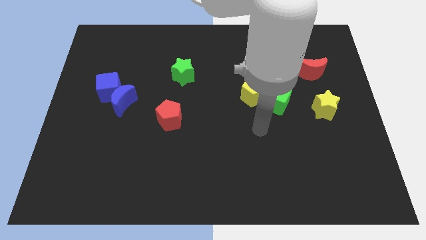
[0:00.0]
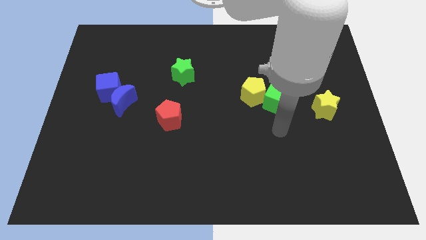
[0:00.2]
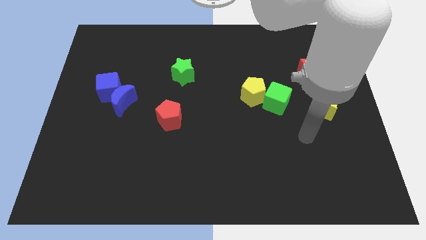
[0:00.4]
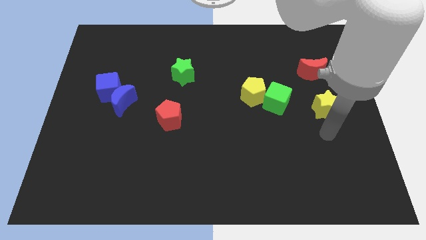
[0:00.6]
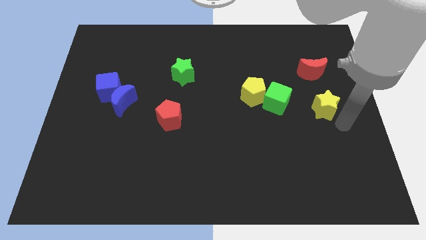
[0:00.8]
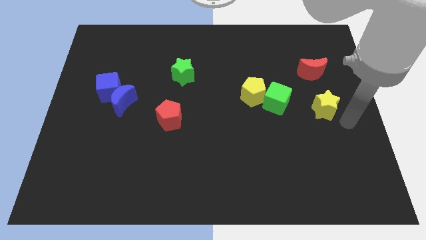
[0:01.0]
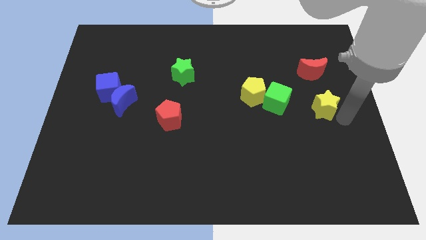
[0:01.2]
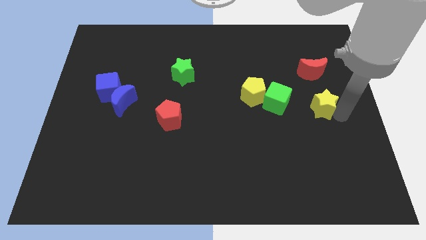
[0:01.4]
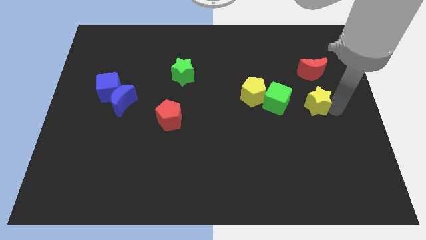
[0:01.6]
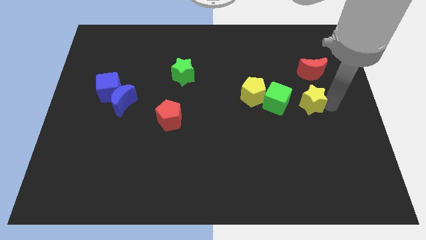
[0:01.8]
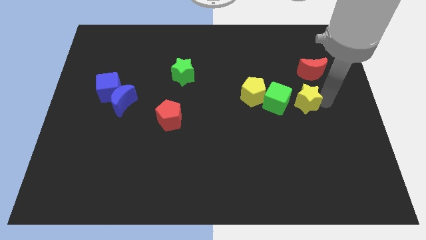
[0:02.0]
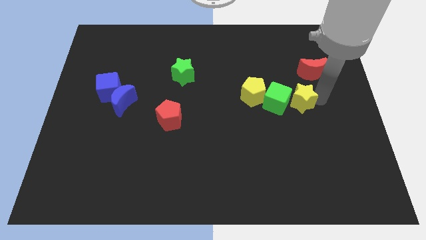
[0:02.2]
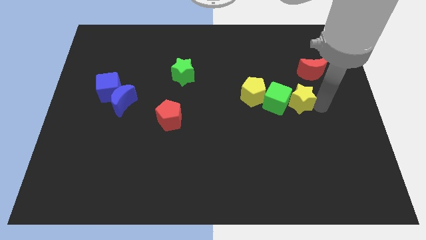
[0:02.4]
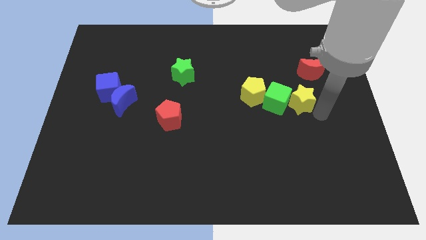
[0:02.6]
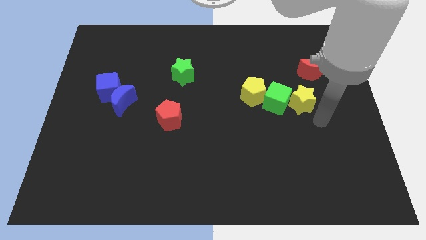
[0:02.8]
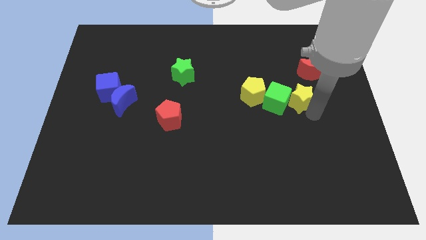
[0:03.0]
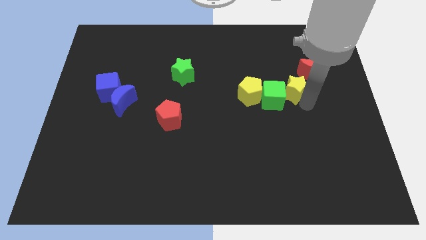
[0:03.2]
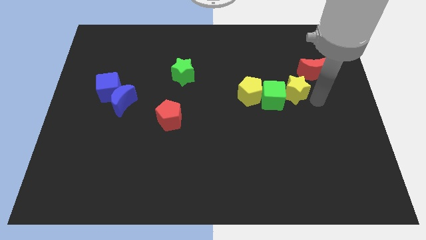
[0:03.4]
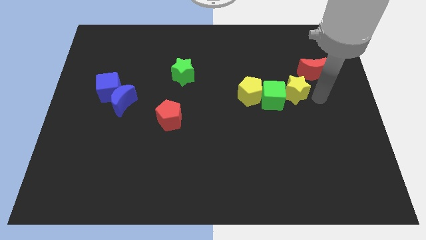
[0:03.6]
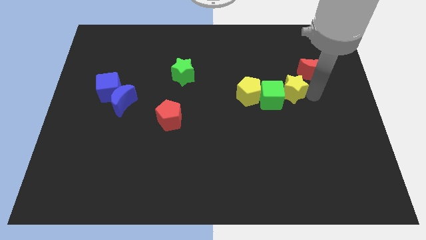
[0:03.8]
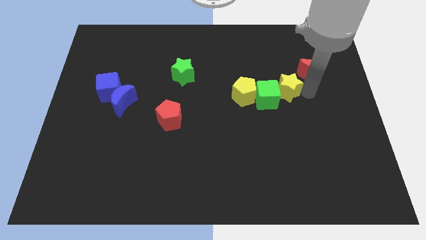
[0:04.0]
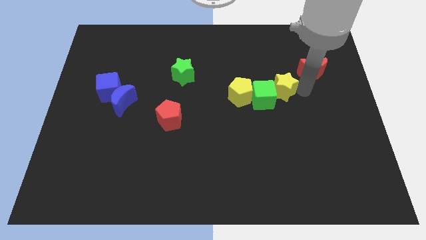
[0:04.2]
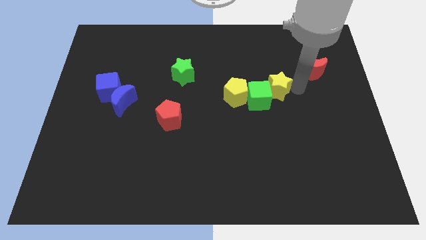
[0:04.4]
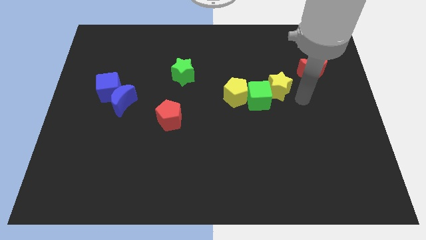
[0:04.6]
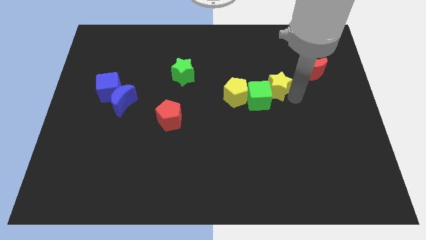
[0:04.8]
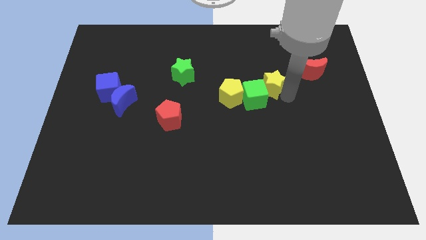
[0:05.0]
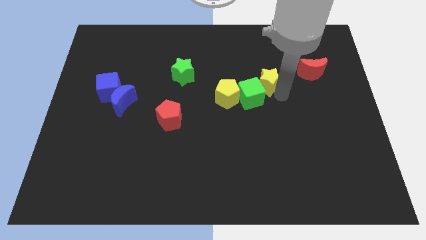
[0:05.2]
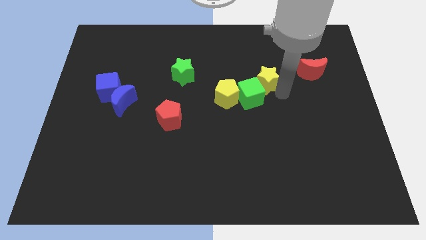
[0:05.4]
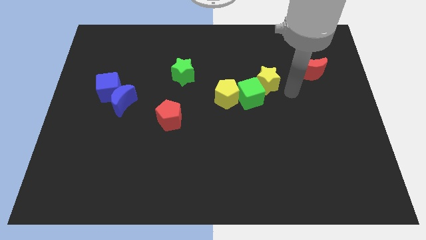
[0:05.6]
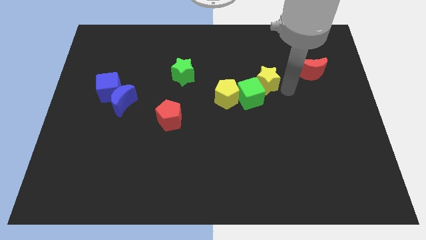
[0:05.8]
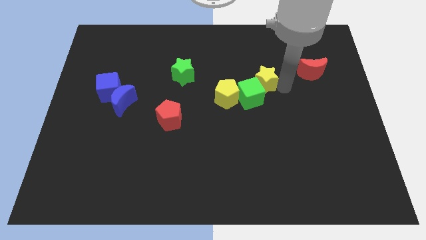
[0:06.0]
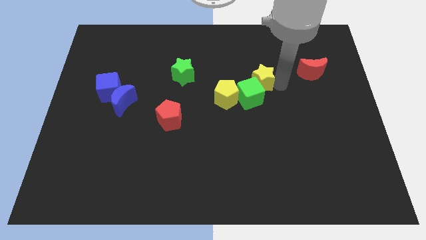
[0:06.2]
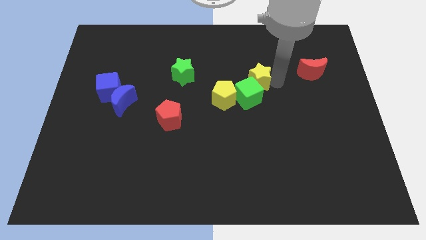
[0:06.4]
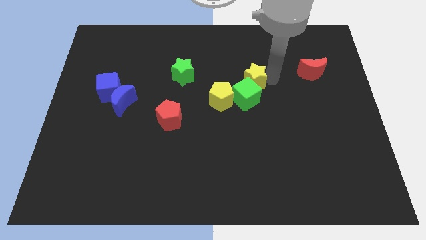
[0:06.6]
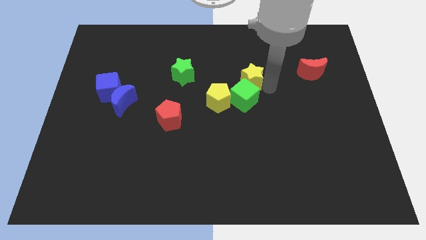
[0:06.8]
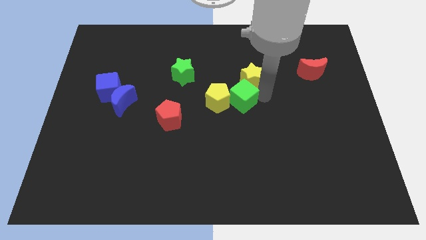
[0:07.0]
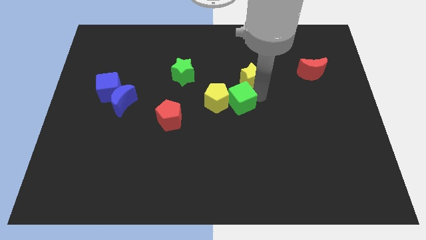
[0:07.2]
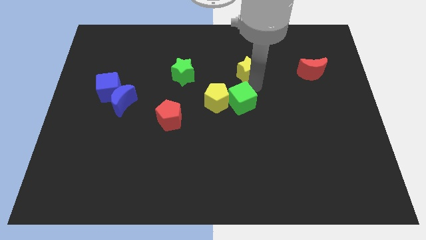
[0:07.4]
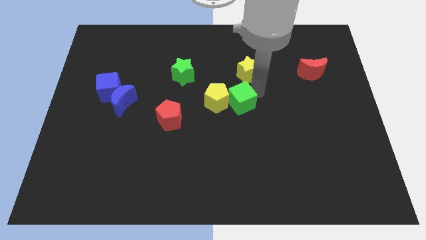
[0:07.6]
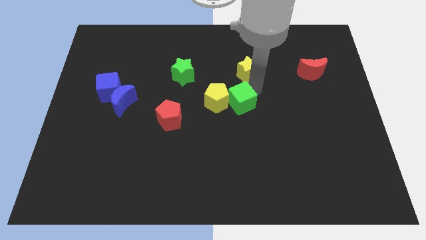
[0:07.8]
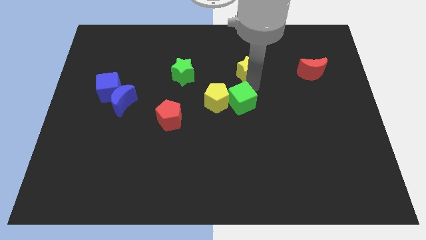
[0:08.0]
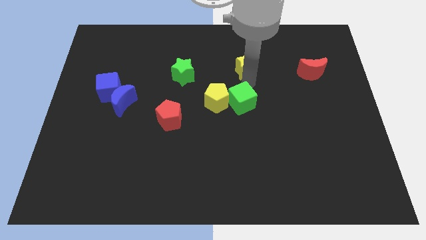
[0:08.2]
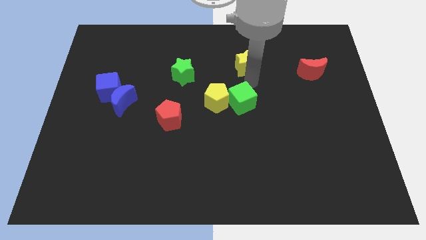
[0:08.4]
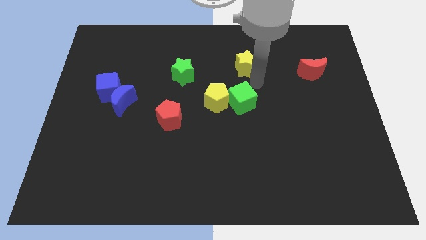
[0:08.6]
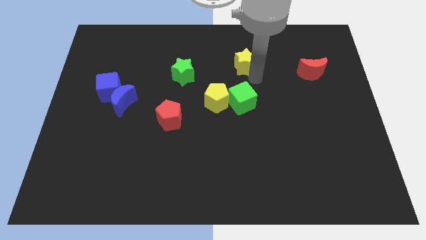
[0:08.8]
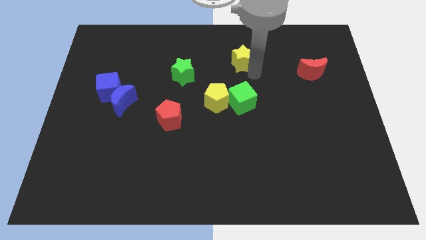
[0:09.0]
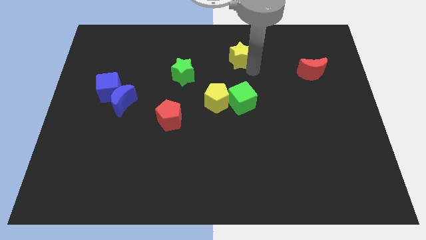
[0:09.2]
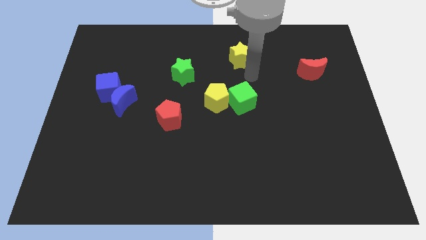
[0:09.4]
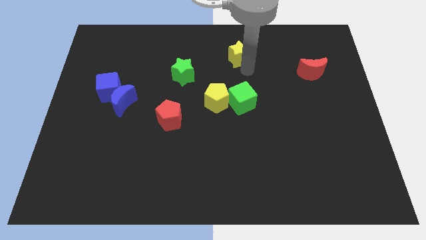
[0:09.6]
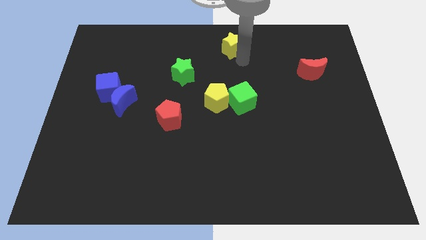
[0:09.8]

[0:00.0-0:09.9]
move the yellow star to the top side

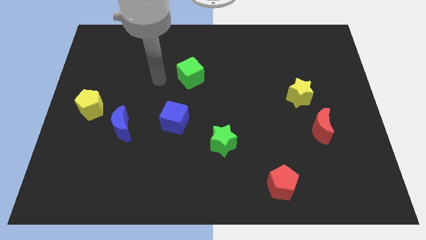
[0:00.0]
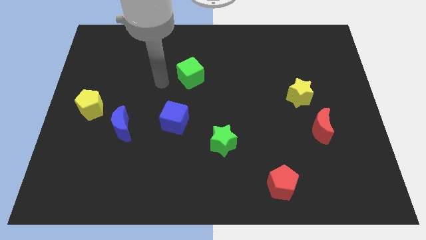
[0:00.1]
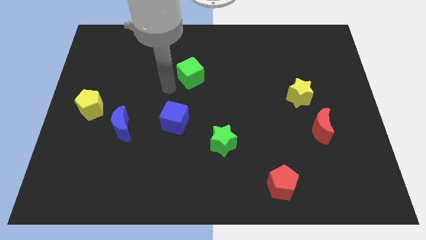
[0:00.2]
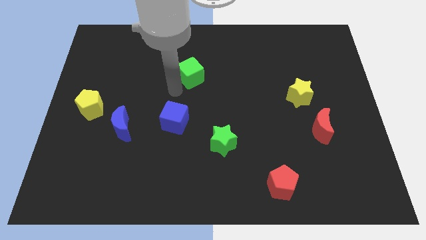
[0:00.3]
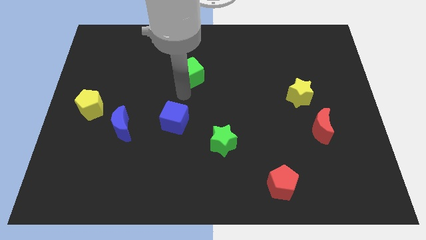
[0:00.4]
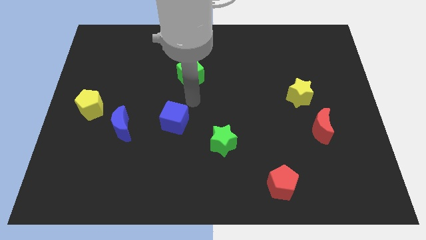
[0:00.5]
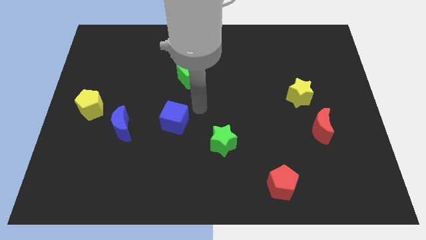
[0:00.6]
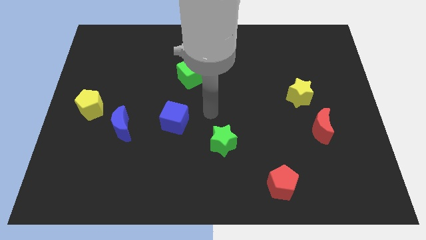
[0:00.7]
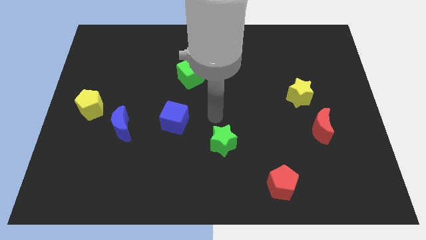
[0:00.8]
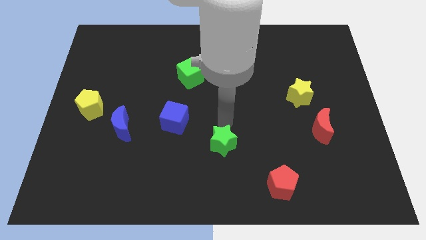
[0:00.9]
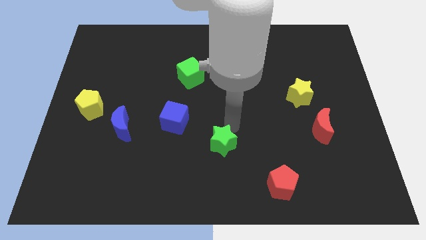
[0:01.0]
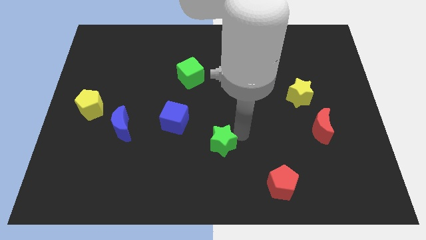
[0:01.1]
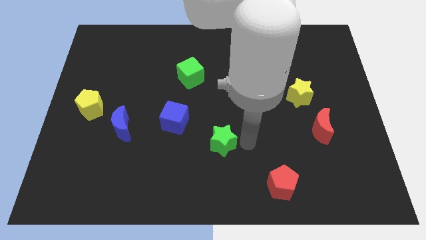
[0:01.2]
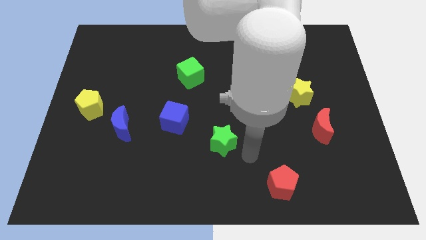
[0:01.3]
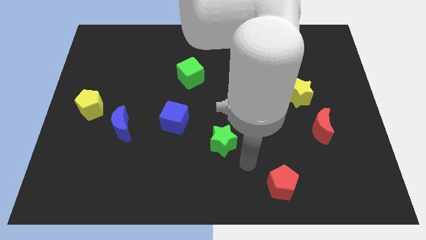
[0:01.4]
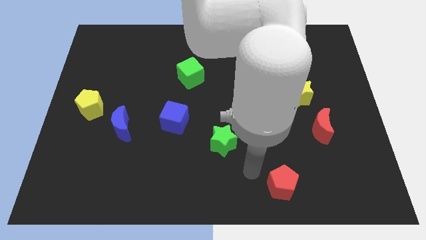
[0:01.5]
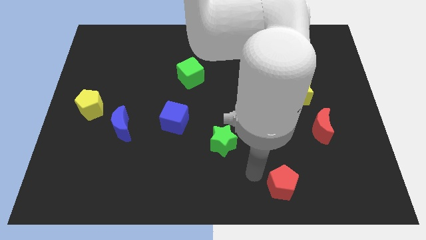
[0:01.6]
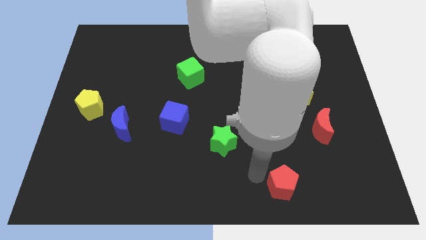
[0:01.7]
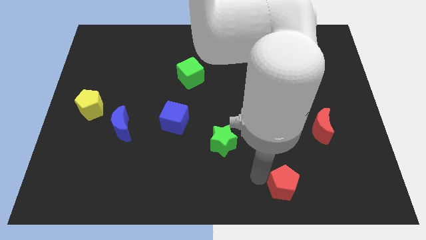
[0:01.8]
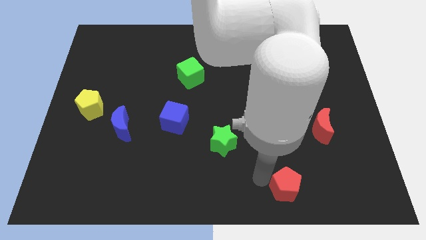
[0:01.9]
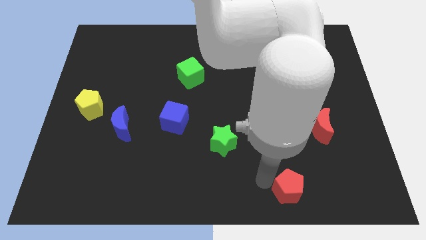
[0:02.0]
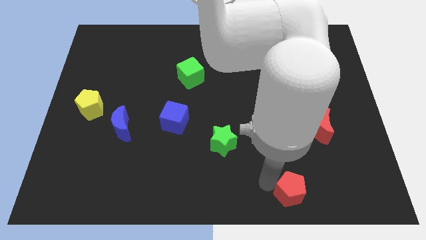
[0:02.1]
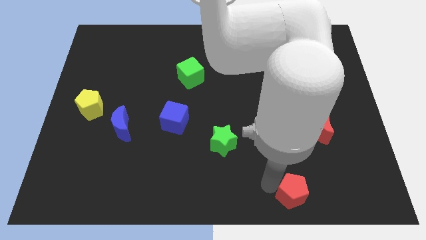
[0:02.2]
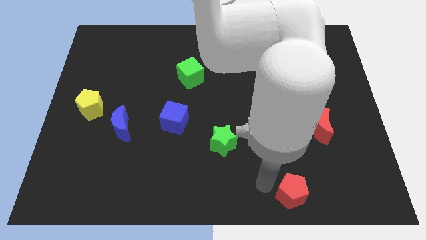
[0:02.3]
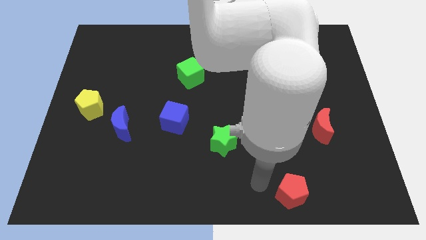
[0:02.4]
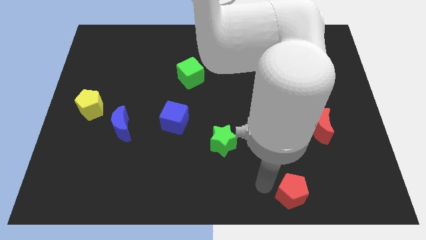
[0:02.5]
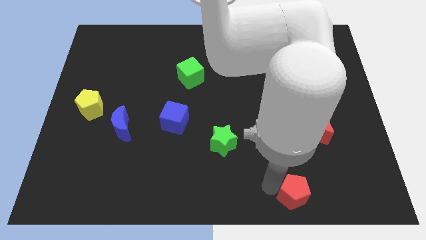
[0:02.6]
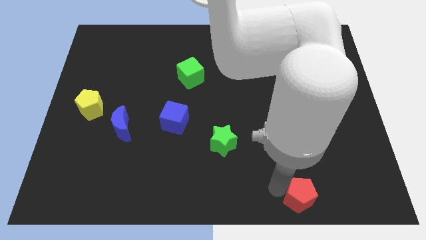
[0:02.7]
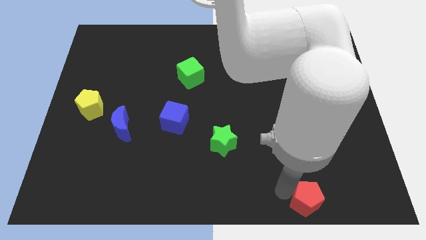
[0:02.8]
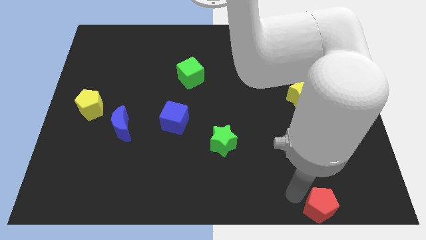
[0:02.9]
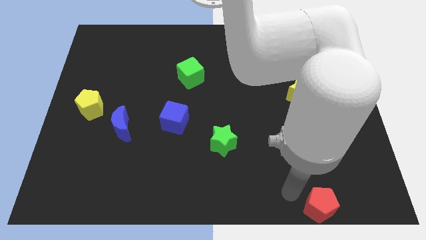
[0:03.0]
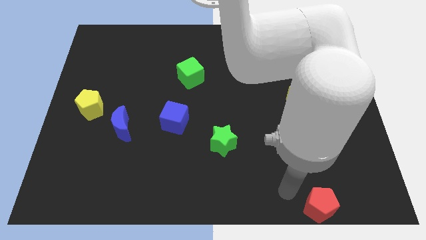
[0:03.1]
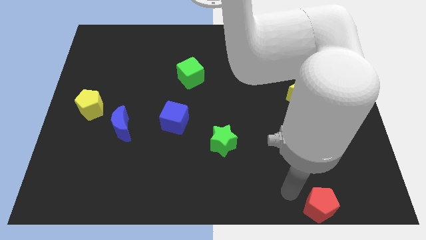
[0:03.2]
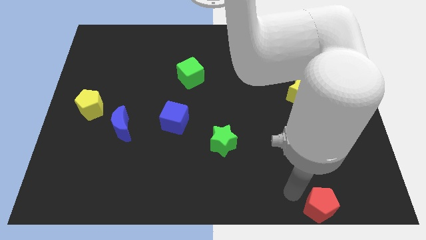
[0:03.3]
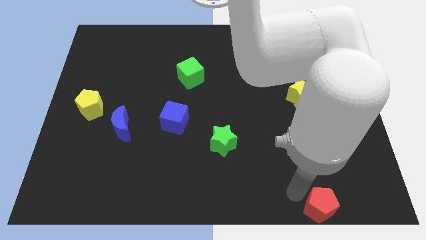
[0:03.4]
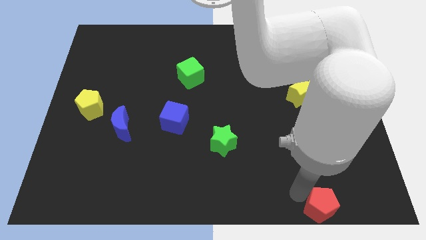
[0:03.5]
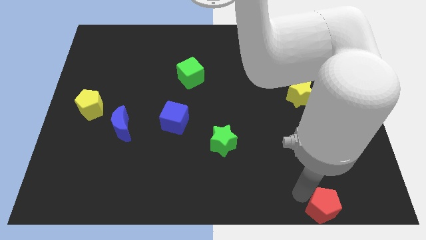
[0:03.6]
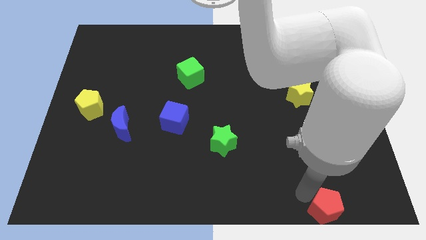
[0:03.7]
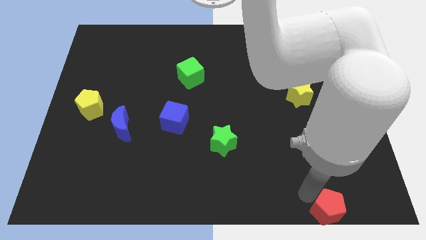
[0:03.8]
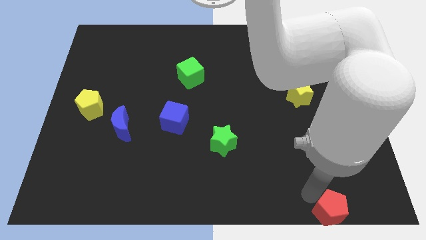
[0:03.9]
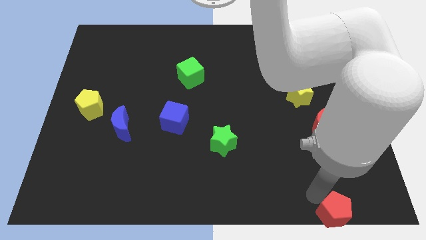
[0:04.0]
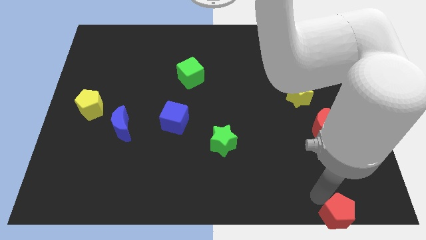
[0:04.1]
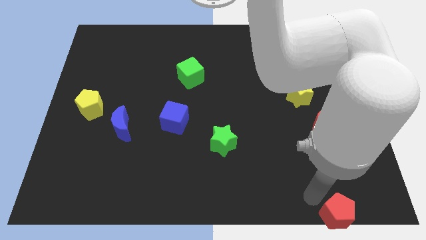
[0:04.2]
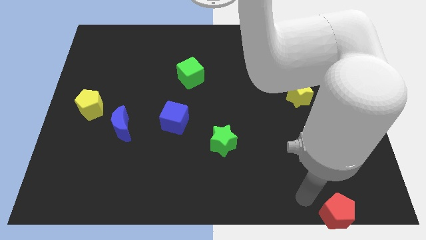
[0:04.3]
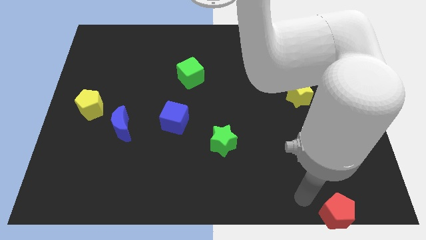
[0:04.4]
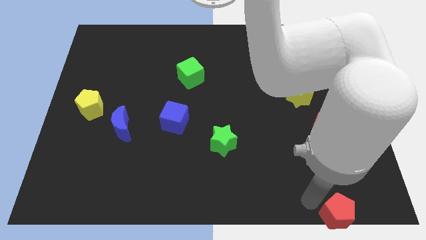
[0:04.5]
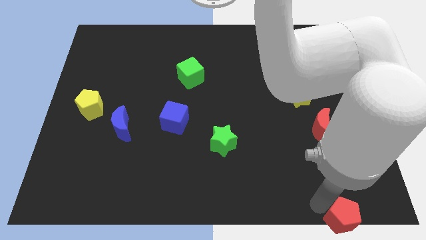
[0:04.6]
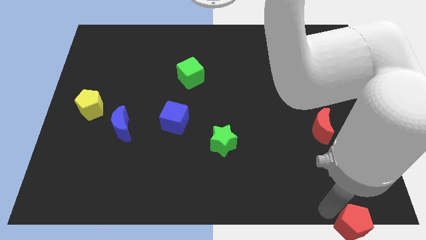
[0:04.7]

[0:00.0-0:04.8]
move the red pentagon to the bottom right corner
